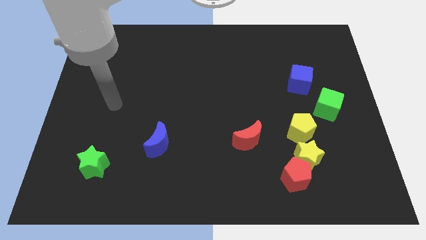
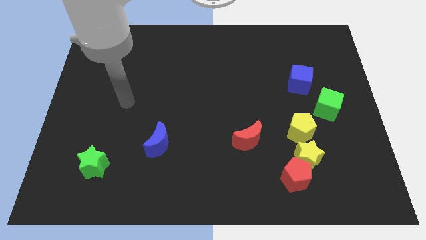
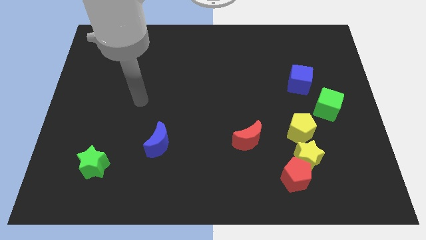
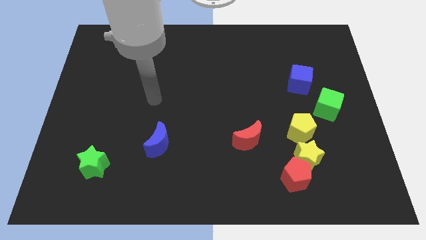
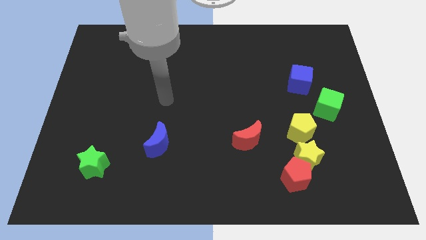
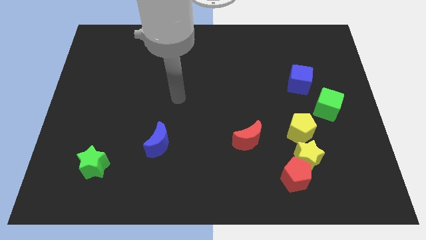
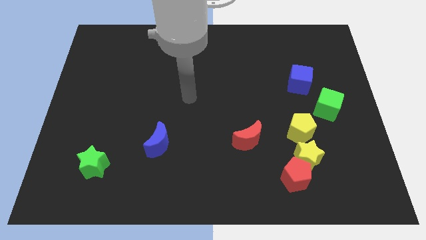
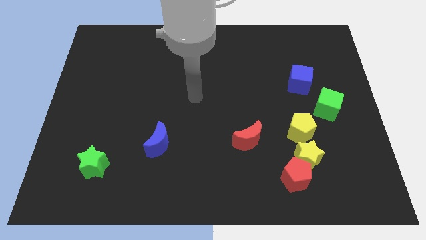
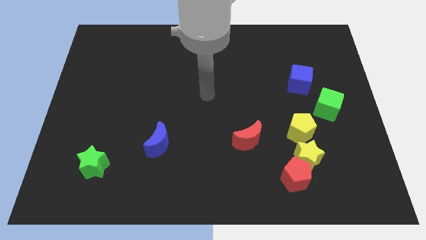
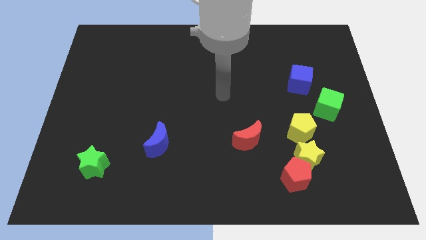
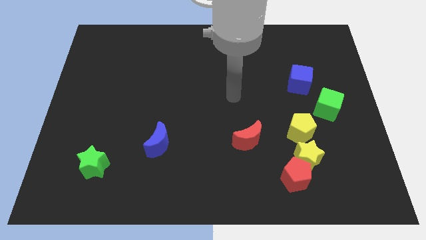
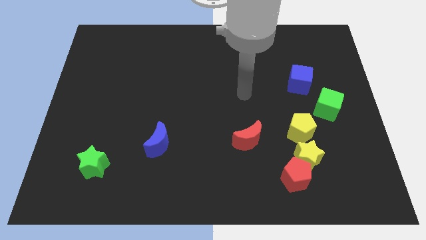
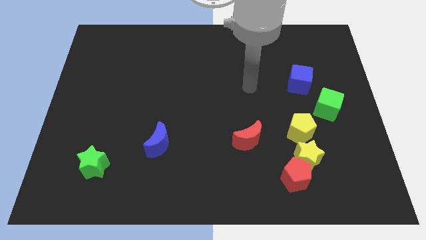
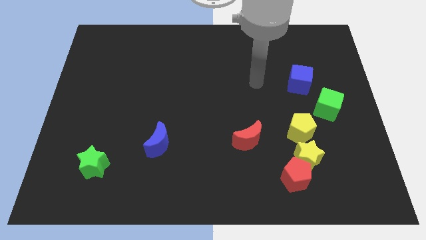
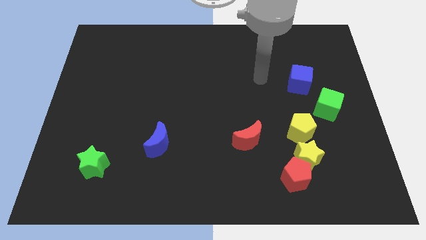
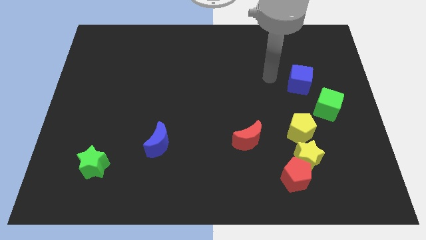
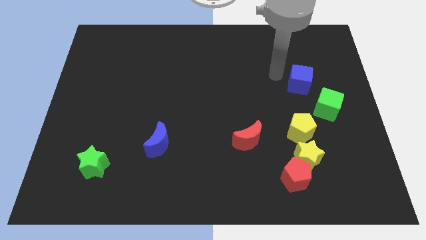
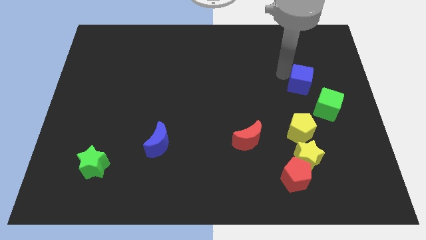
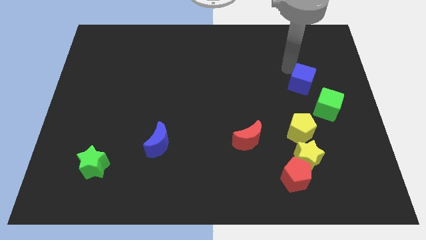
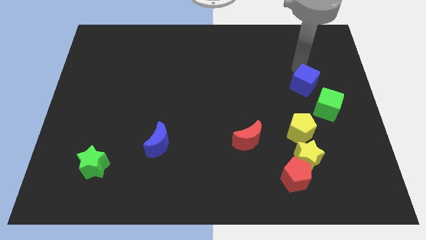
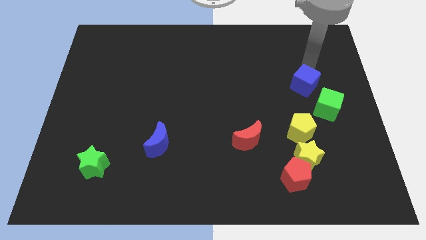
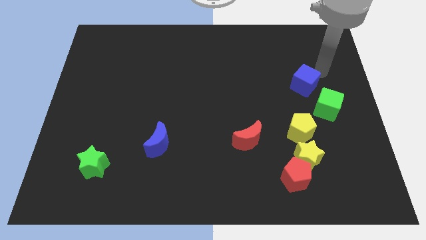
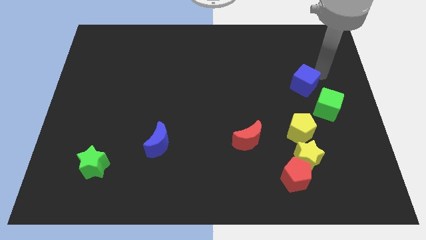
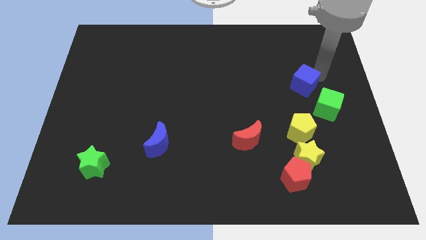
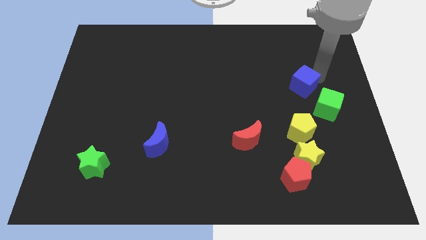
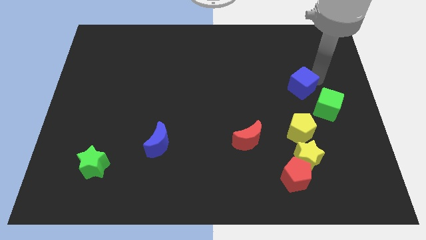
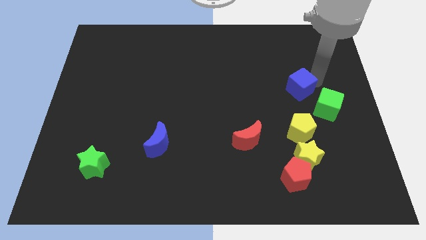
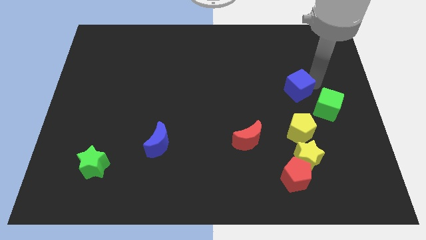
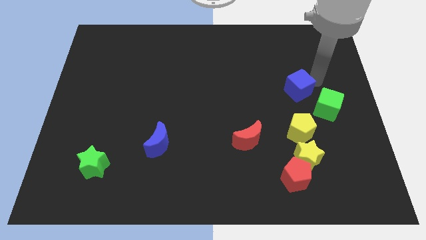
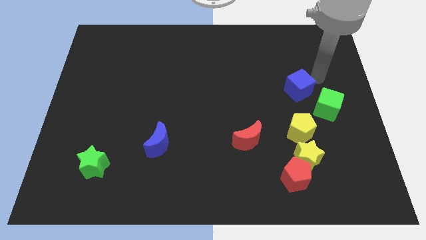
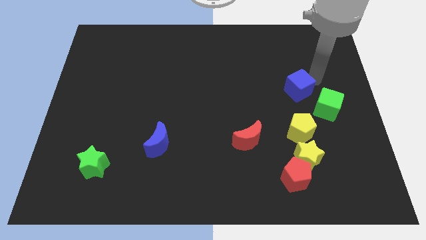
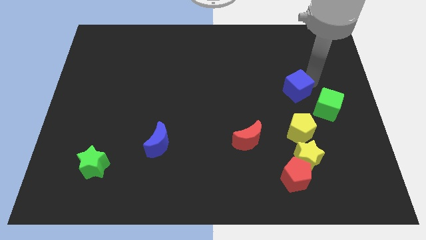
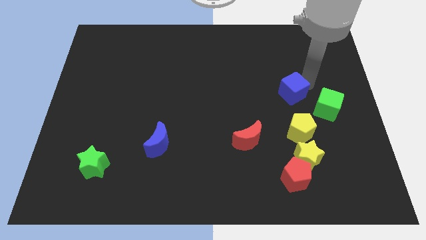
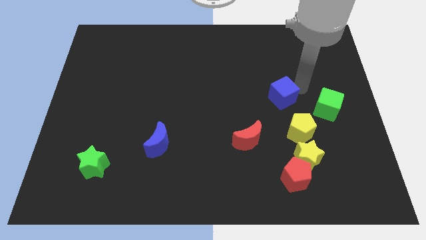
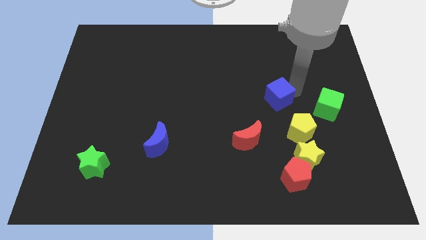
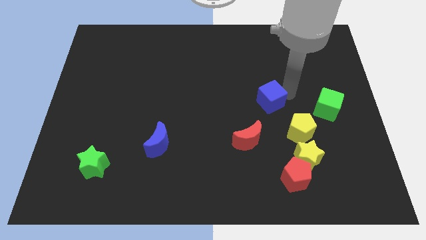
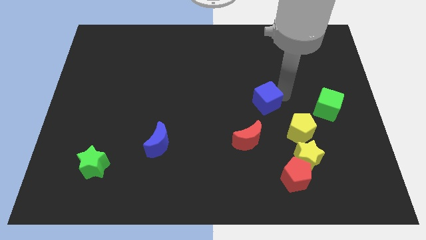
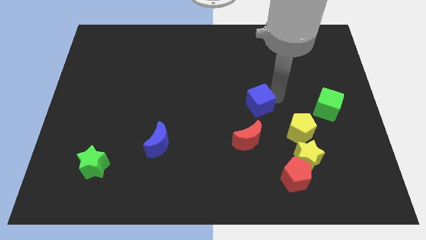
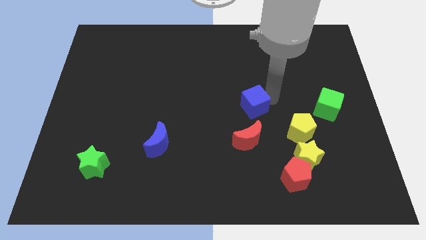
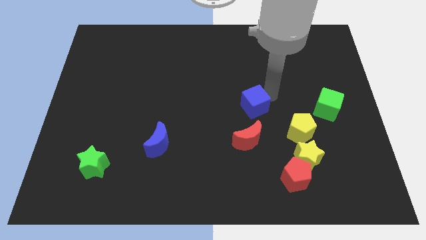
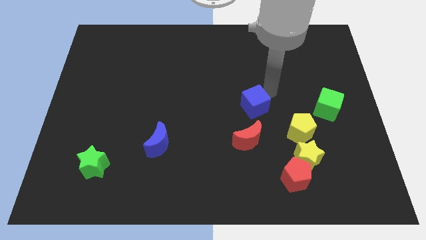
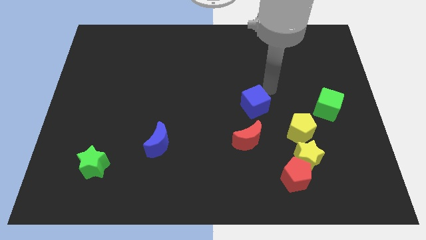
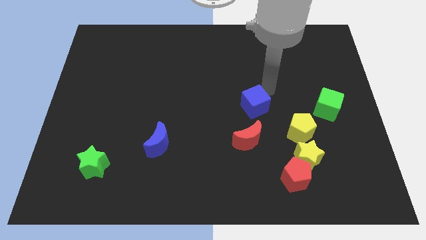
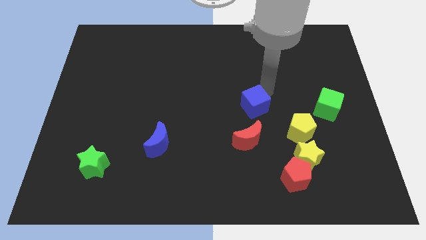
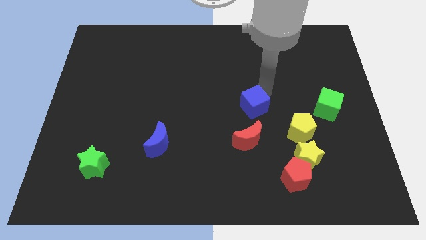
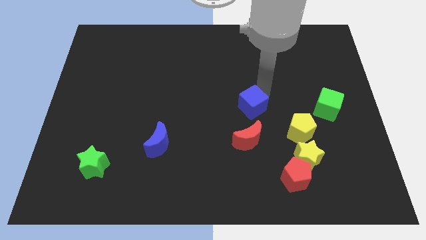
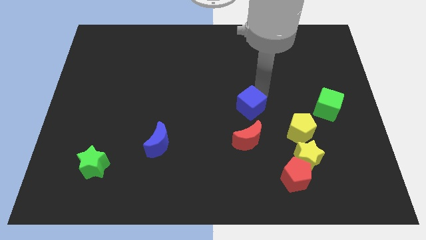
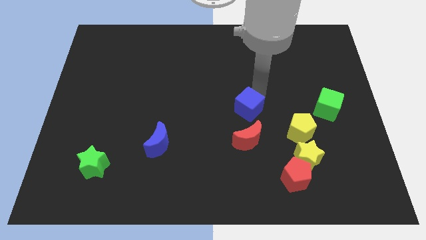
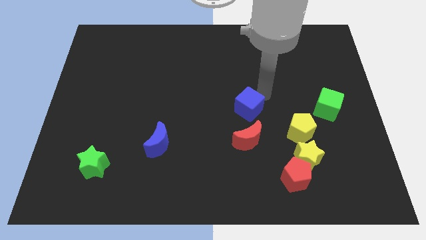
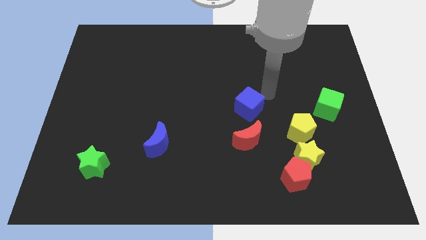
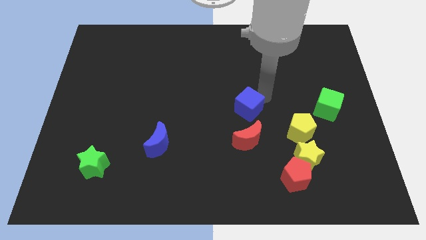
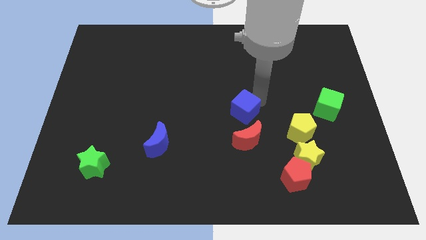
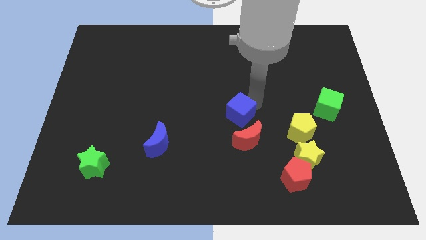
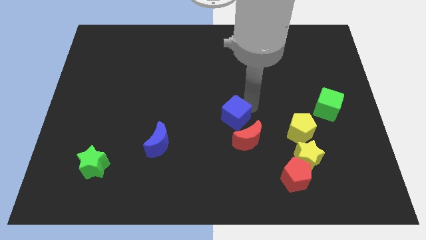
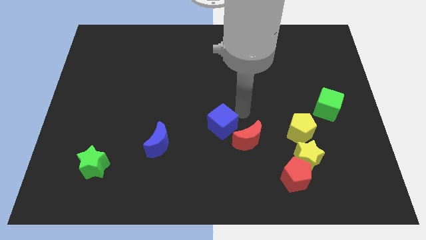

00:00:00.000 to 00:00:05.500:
put the blue cube to the left of the red moon

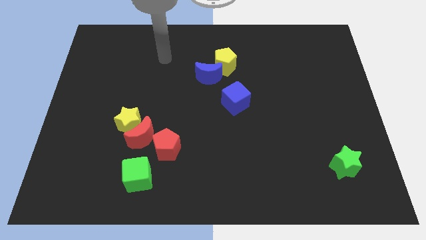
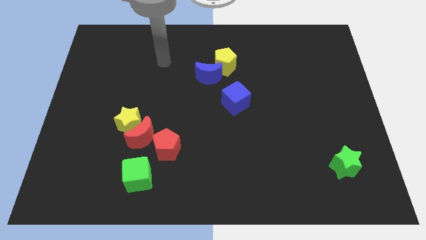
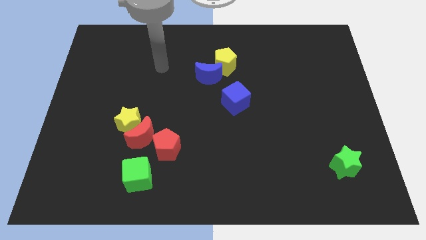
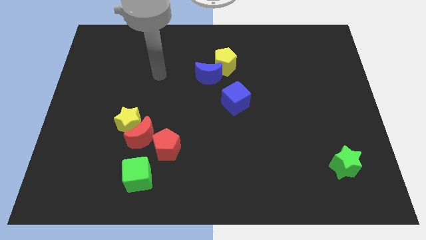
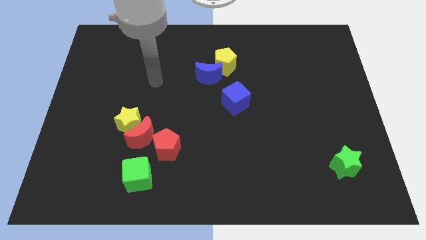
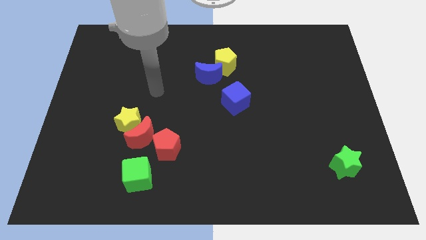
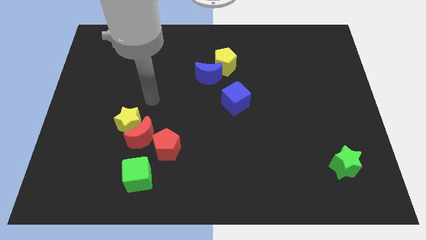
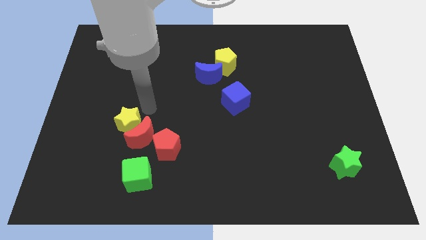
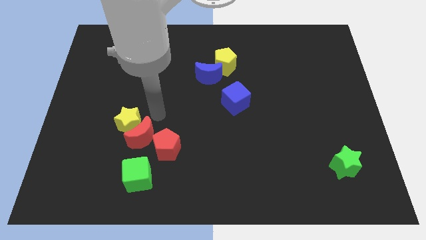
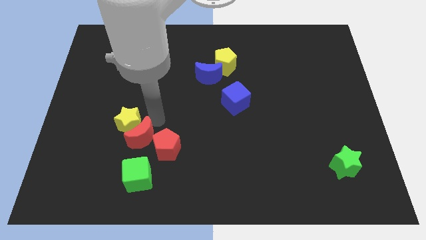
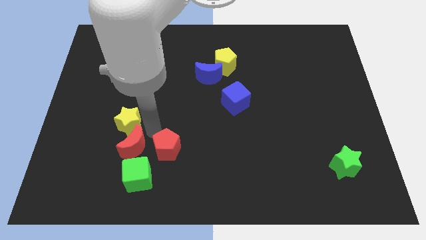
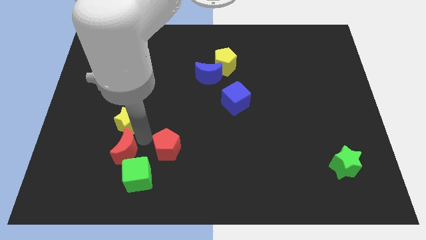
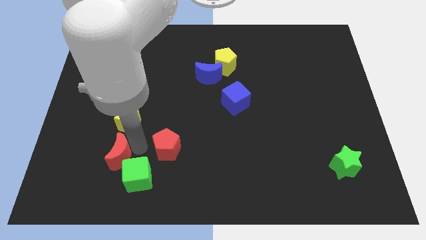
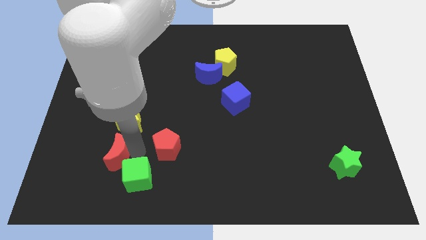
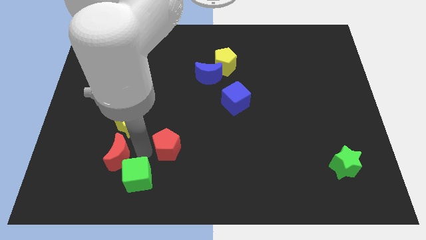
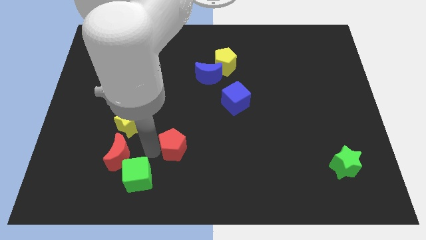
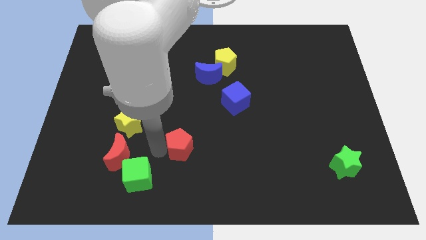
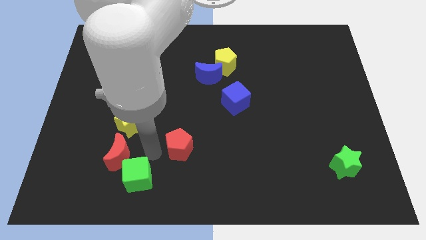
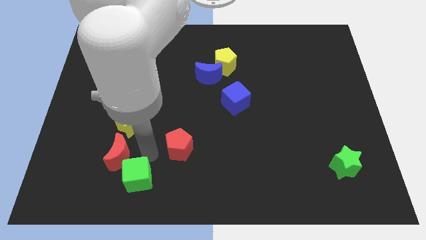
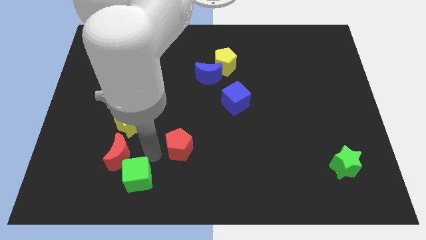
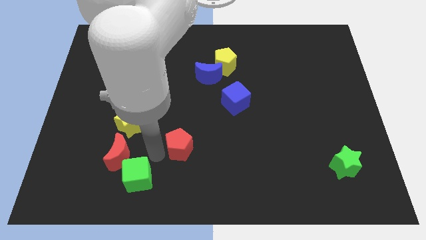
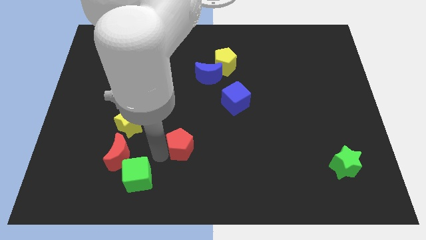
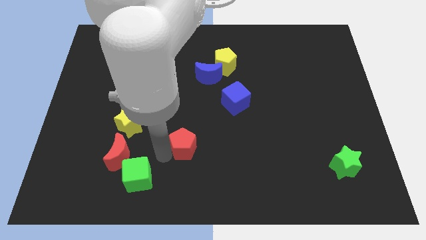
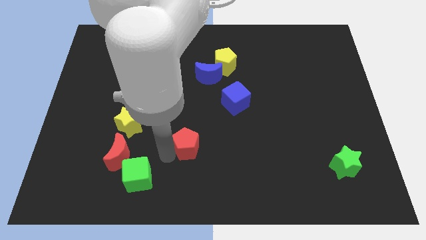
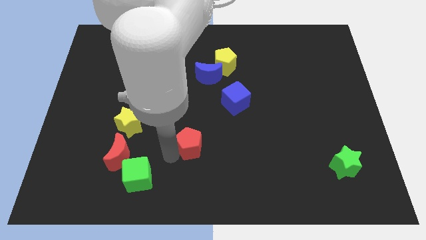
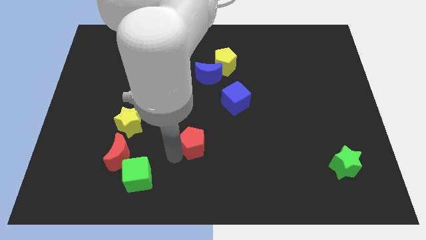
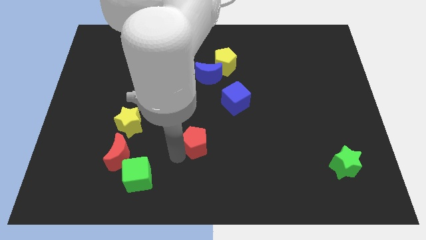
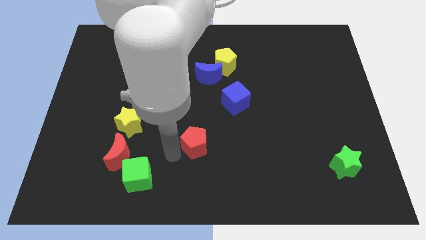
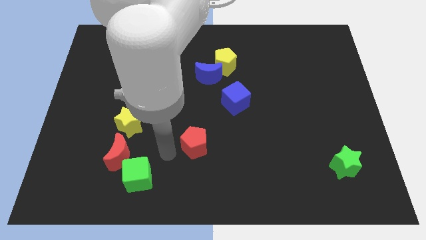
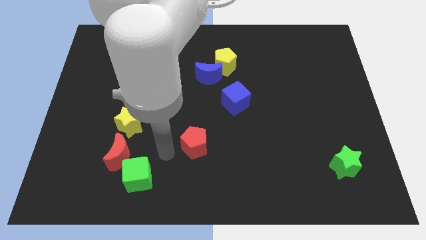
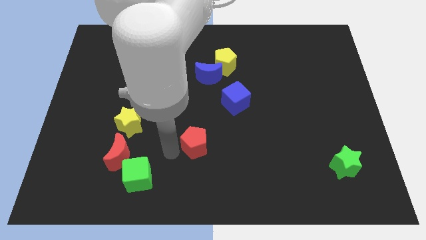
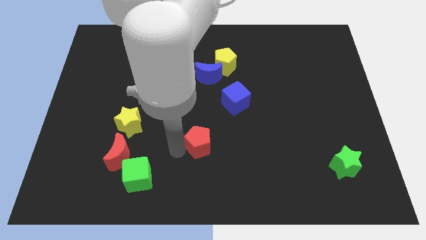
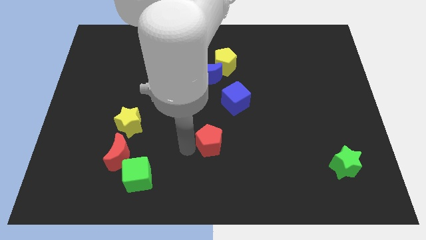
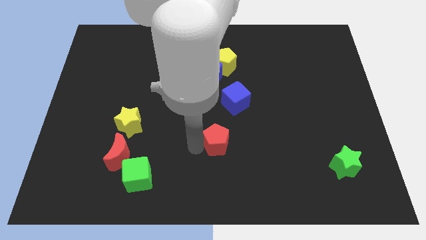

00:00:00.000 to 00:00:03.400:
move the red pentagon below the blue cube
